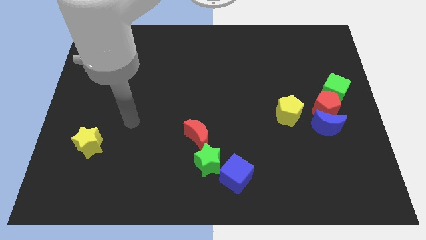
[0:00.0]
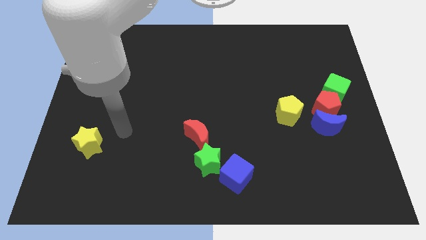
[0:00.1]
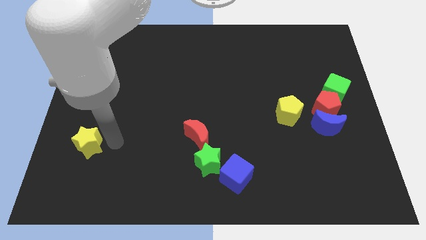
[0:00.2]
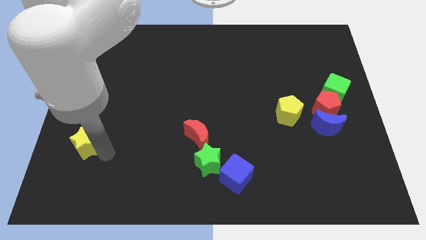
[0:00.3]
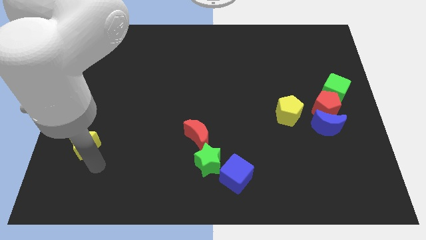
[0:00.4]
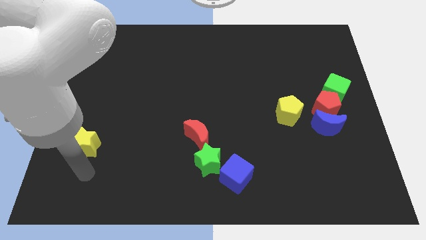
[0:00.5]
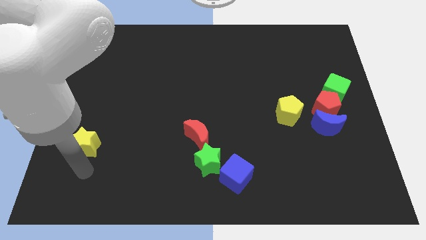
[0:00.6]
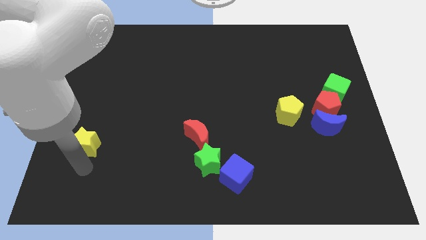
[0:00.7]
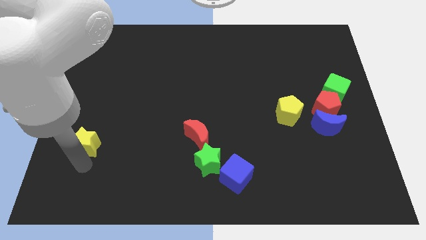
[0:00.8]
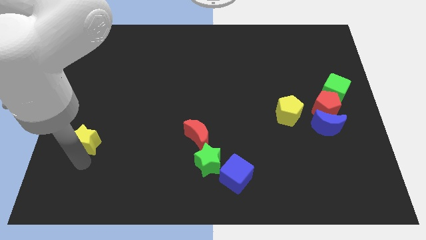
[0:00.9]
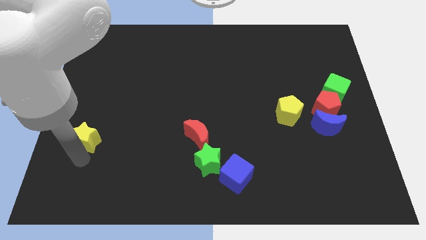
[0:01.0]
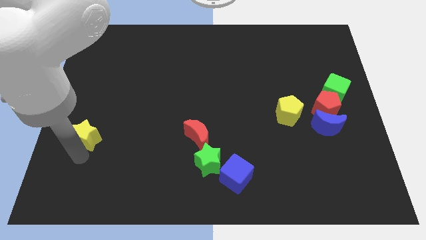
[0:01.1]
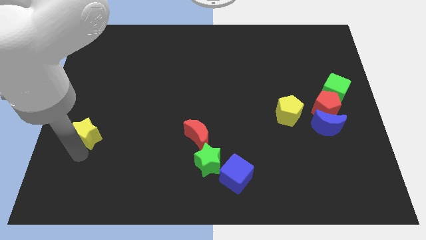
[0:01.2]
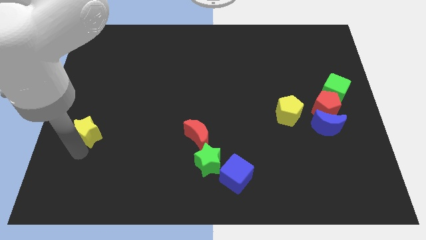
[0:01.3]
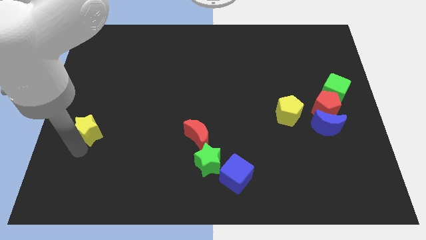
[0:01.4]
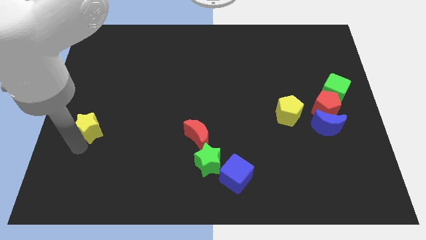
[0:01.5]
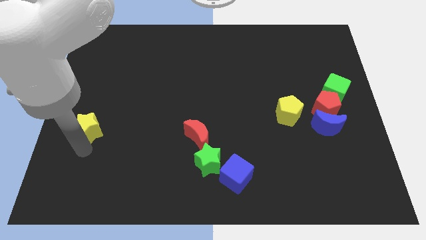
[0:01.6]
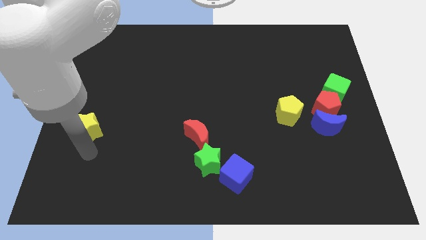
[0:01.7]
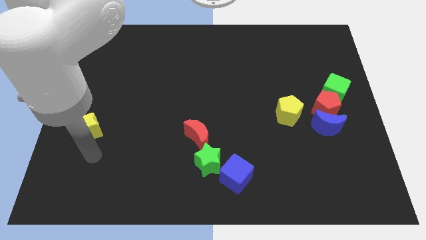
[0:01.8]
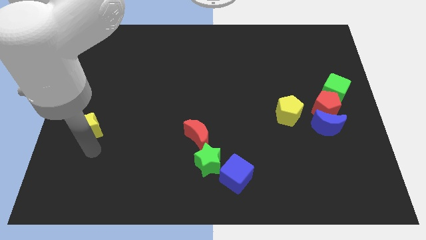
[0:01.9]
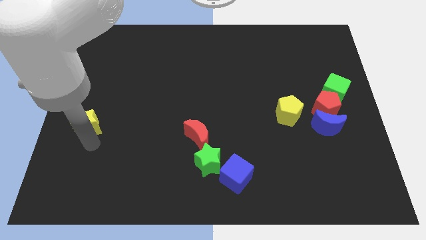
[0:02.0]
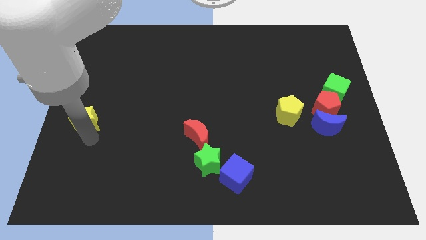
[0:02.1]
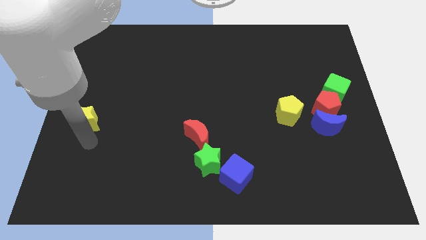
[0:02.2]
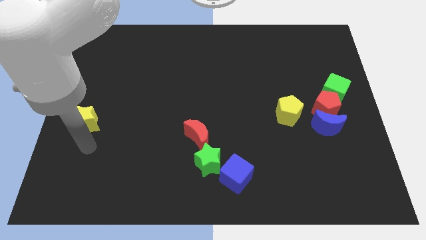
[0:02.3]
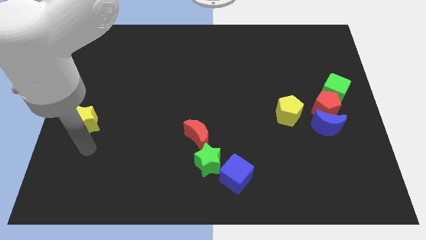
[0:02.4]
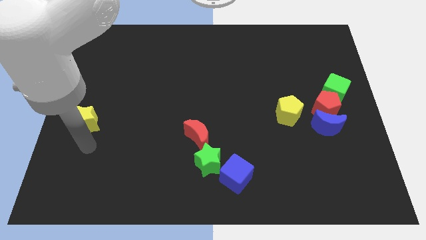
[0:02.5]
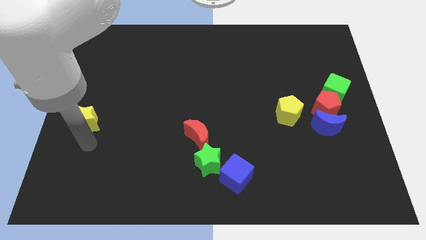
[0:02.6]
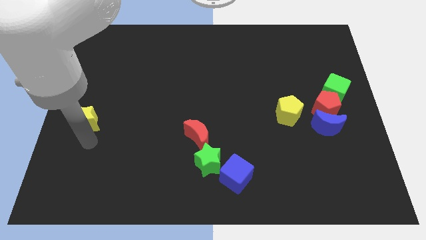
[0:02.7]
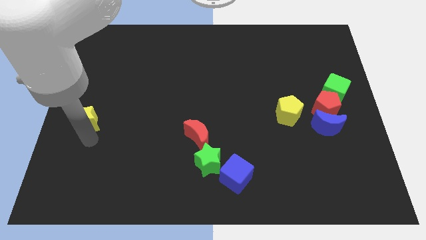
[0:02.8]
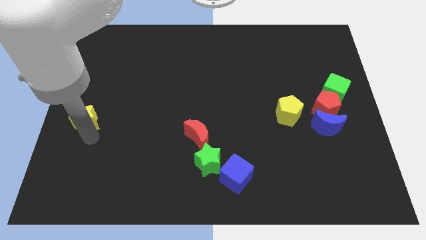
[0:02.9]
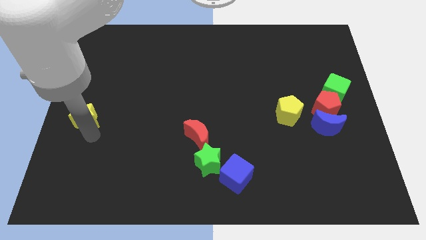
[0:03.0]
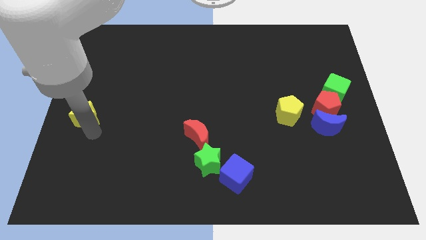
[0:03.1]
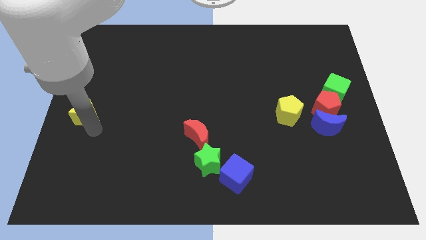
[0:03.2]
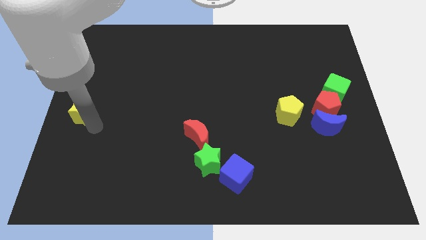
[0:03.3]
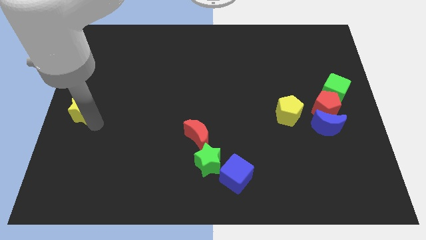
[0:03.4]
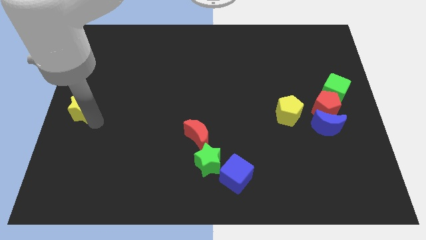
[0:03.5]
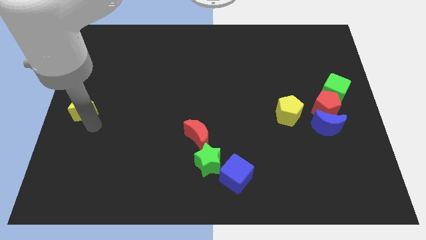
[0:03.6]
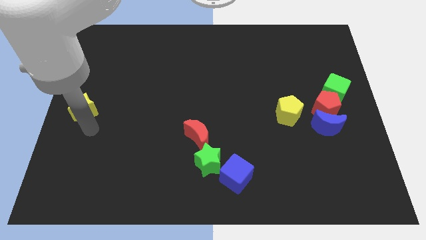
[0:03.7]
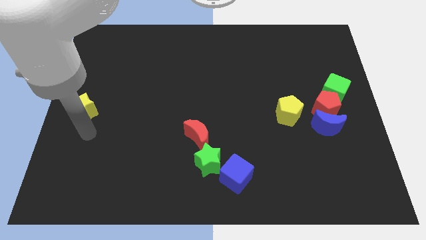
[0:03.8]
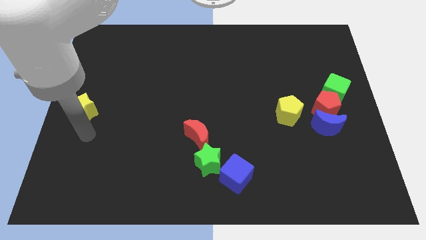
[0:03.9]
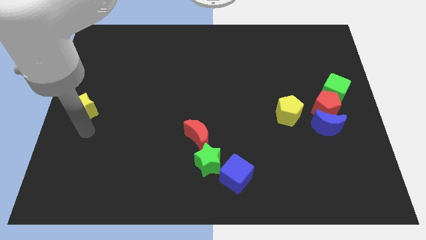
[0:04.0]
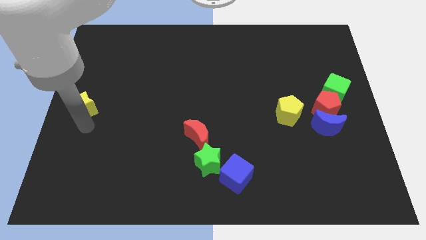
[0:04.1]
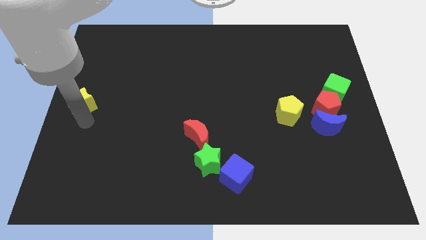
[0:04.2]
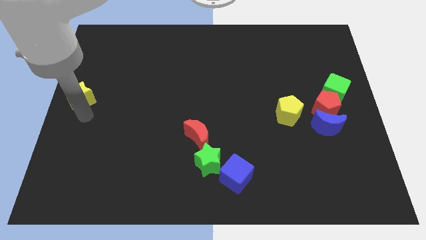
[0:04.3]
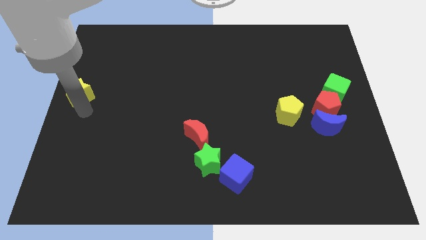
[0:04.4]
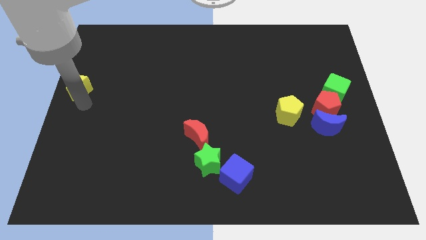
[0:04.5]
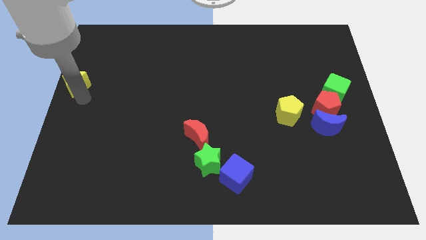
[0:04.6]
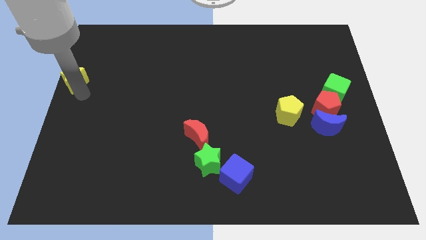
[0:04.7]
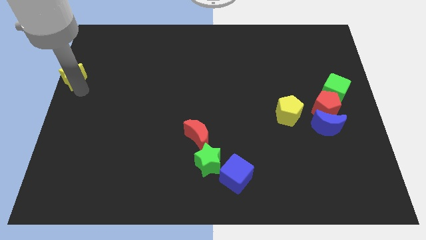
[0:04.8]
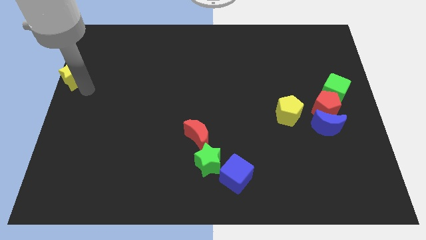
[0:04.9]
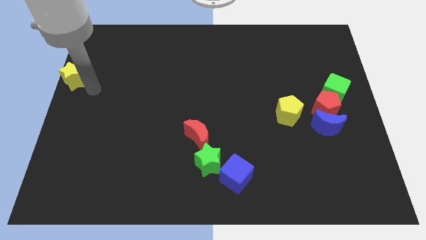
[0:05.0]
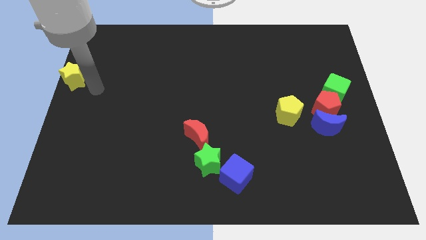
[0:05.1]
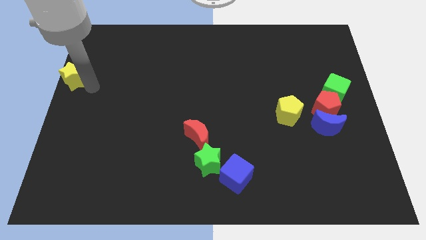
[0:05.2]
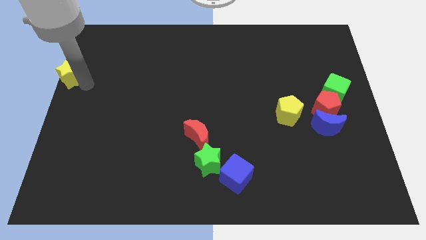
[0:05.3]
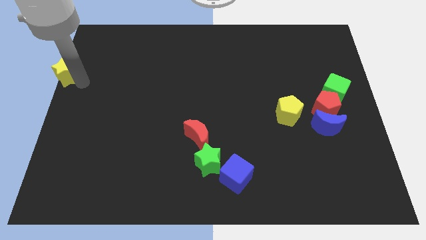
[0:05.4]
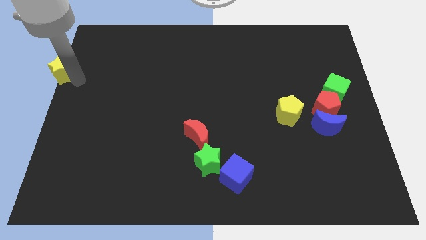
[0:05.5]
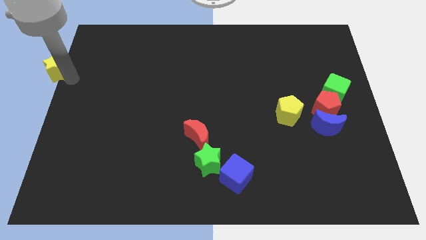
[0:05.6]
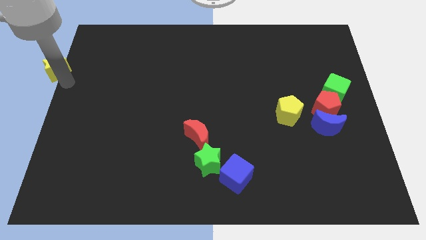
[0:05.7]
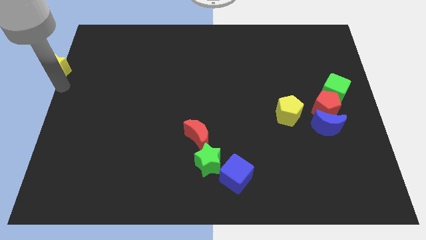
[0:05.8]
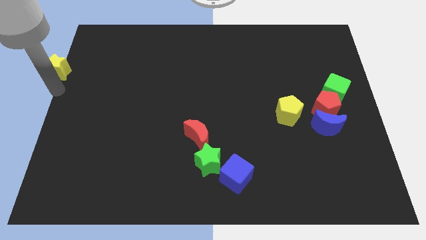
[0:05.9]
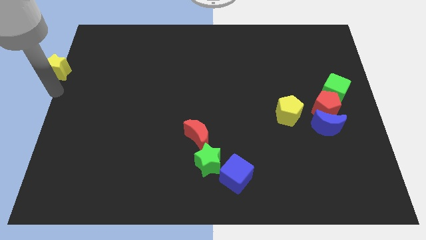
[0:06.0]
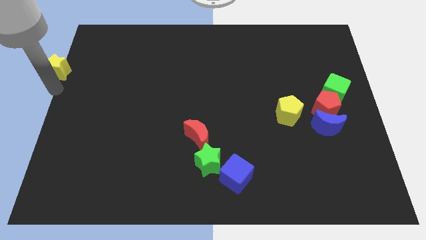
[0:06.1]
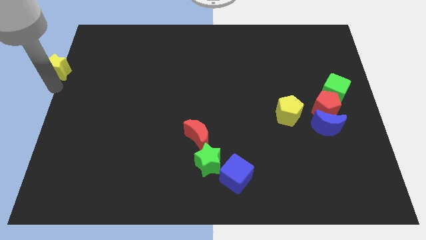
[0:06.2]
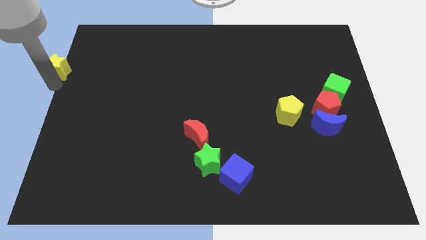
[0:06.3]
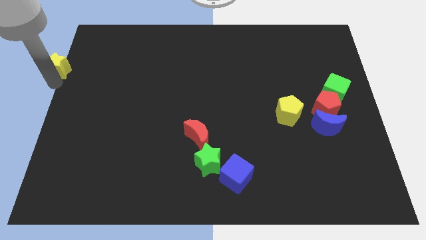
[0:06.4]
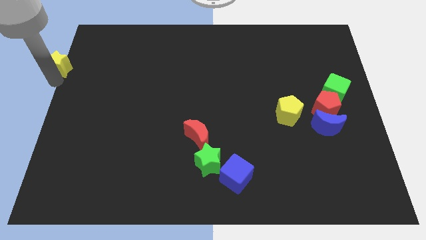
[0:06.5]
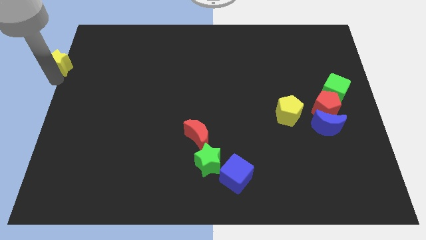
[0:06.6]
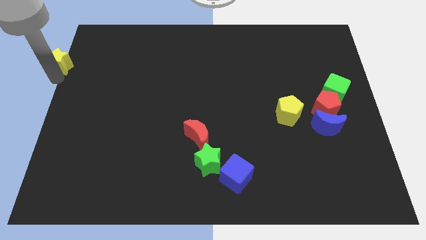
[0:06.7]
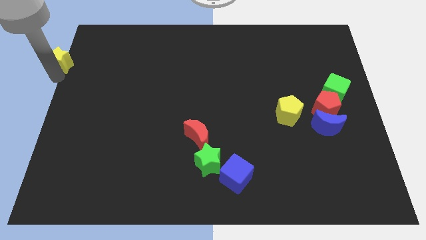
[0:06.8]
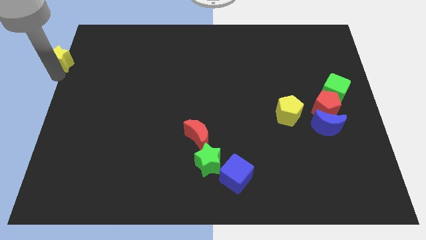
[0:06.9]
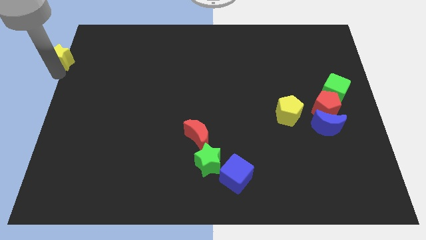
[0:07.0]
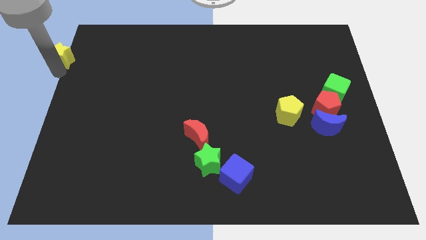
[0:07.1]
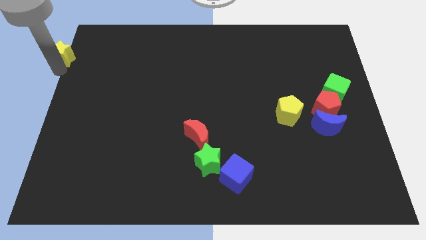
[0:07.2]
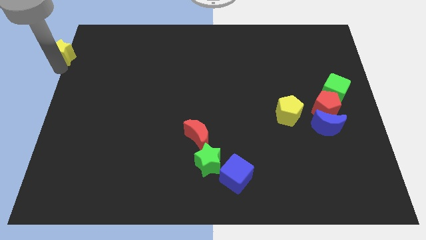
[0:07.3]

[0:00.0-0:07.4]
put the yellow star to the top left
